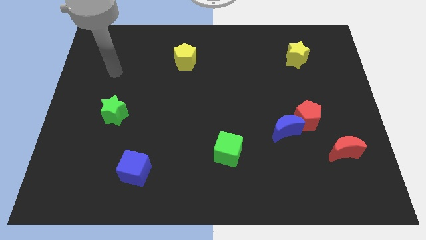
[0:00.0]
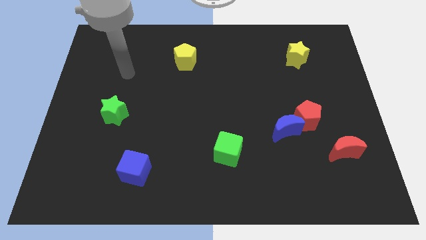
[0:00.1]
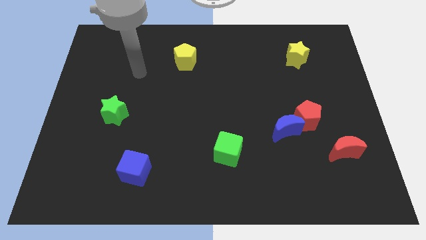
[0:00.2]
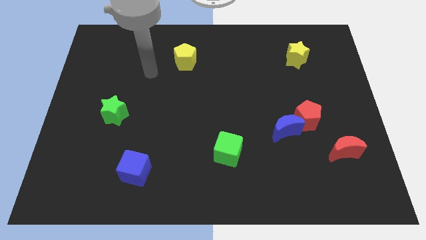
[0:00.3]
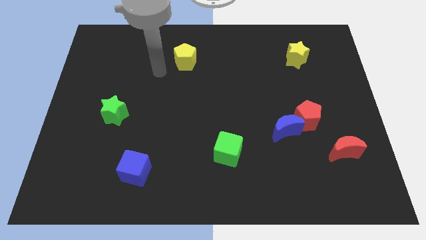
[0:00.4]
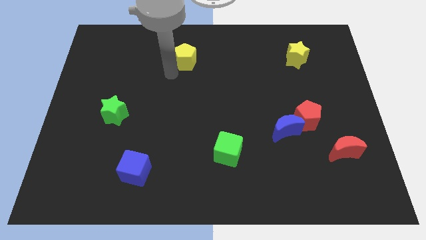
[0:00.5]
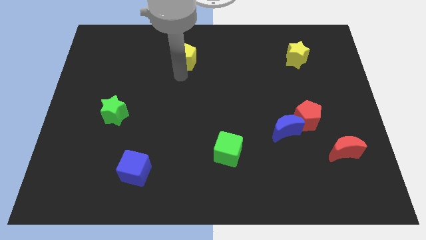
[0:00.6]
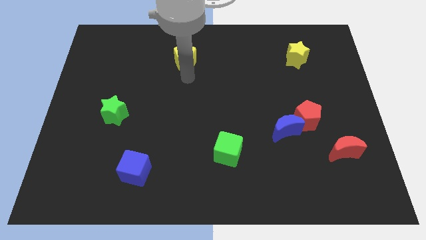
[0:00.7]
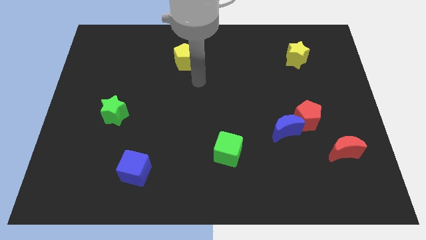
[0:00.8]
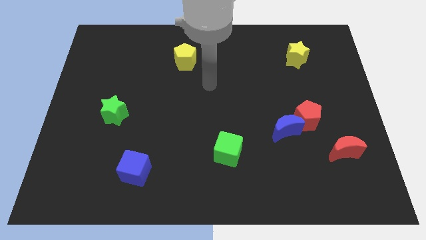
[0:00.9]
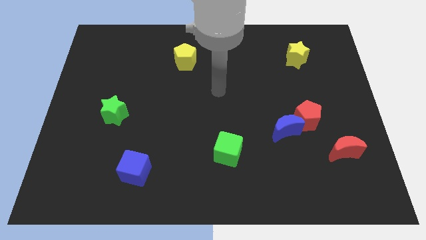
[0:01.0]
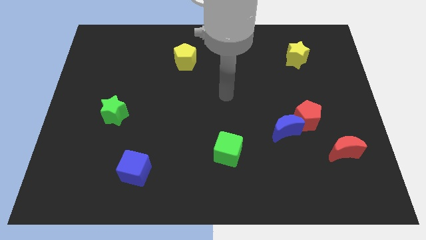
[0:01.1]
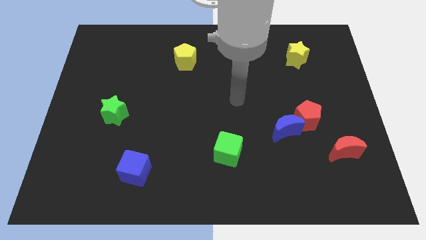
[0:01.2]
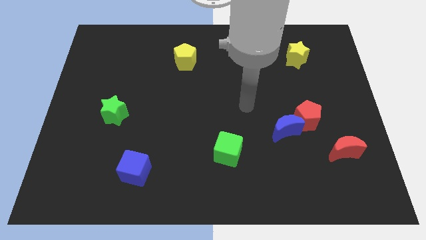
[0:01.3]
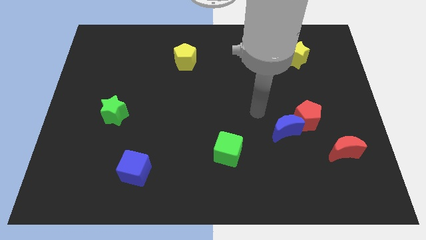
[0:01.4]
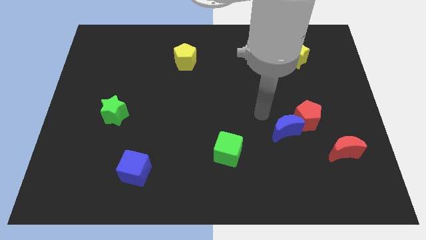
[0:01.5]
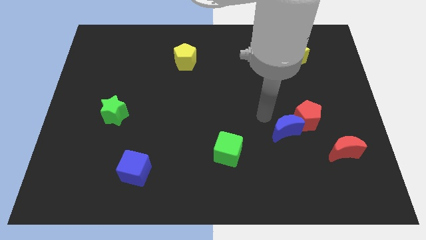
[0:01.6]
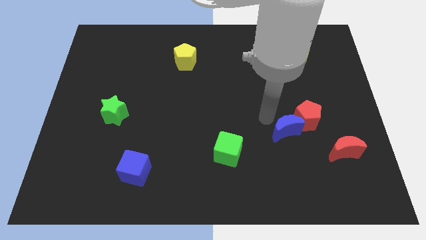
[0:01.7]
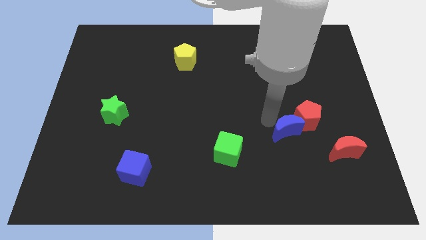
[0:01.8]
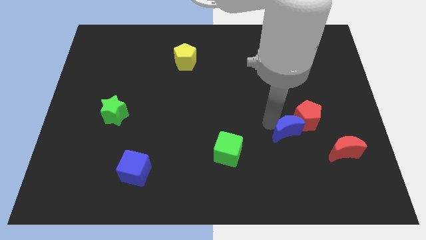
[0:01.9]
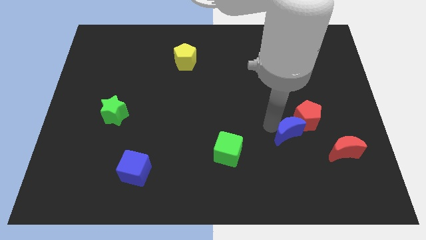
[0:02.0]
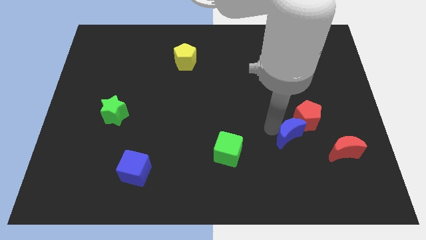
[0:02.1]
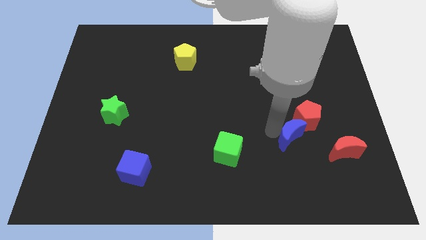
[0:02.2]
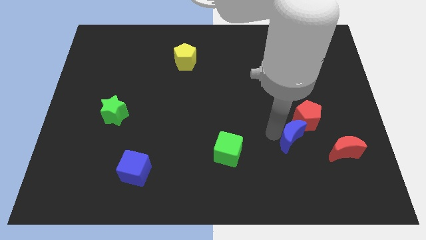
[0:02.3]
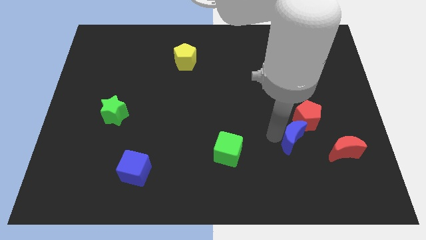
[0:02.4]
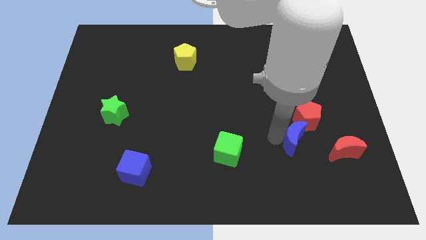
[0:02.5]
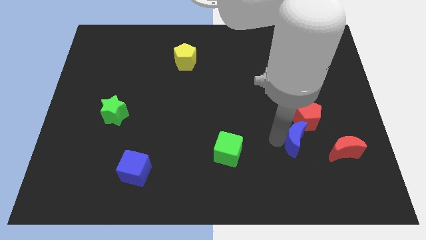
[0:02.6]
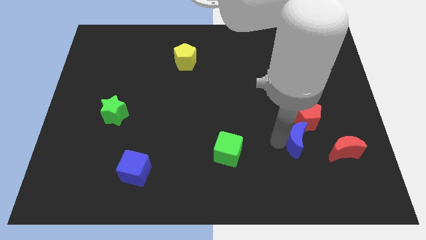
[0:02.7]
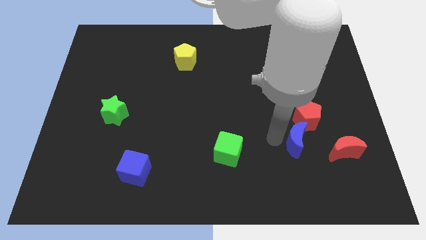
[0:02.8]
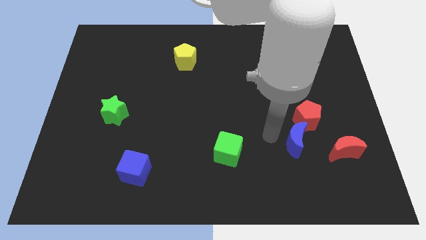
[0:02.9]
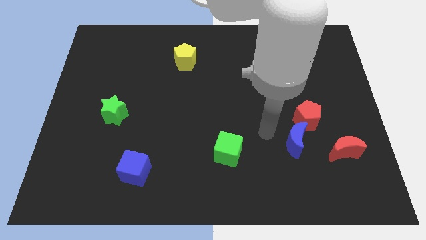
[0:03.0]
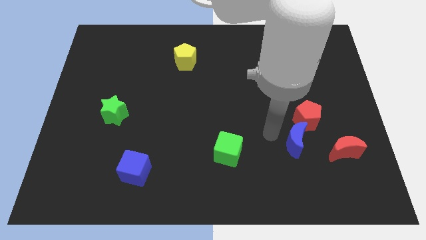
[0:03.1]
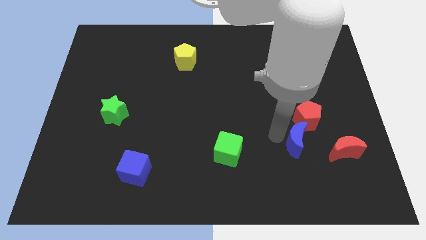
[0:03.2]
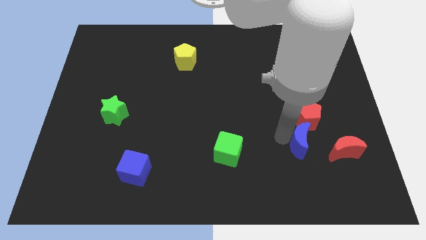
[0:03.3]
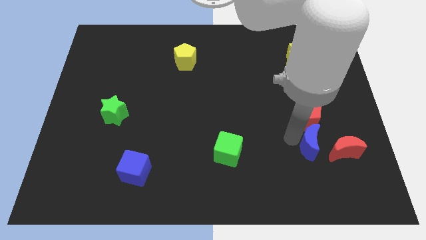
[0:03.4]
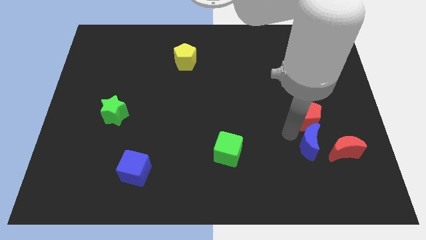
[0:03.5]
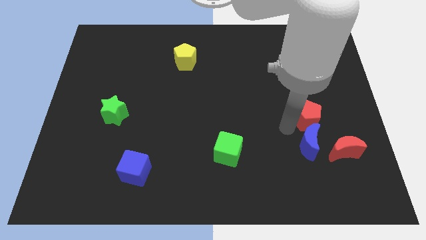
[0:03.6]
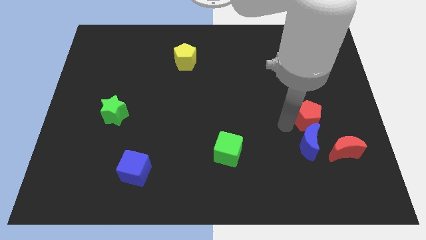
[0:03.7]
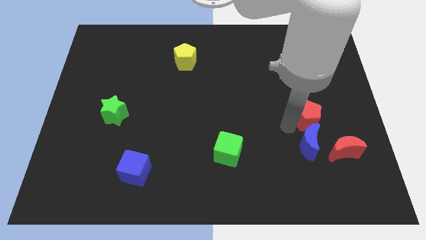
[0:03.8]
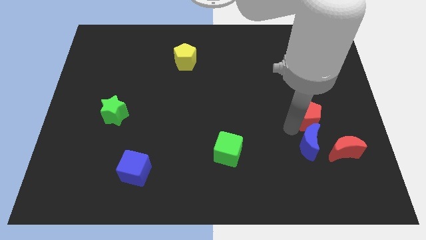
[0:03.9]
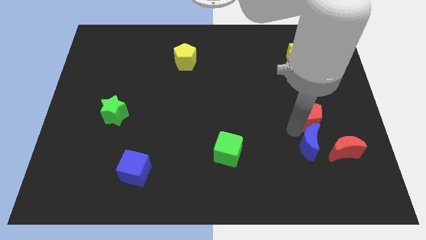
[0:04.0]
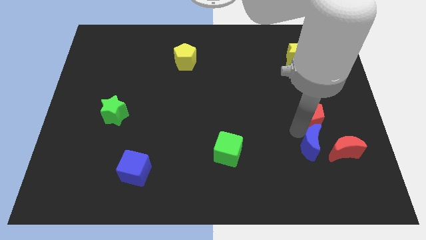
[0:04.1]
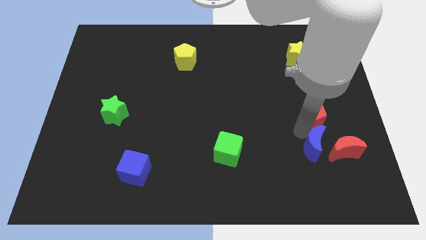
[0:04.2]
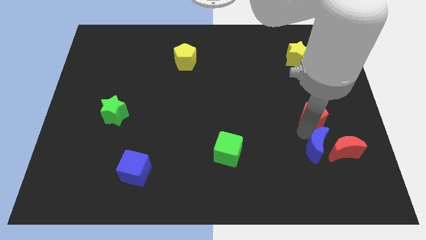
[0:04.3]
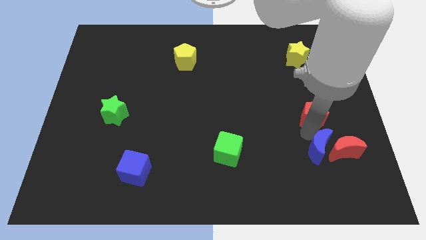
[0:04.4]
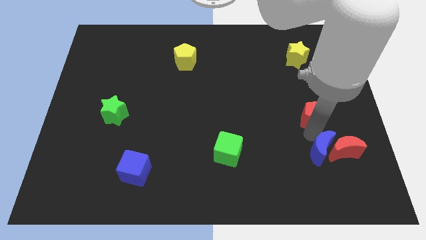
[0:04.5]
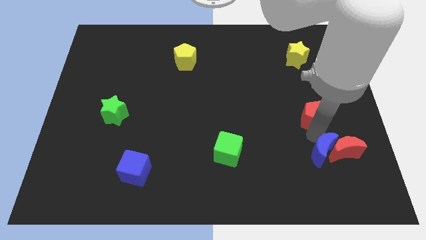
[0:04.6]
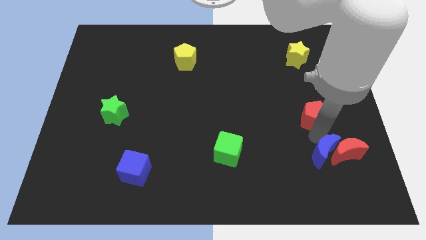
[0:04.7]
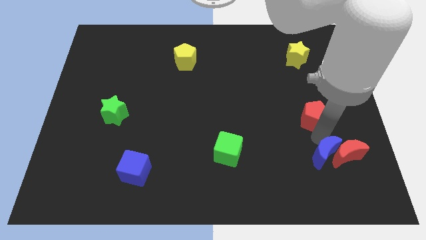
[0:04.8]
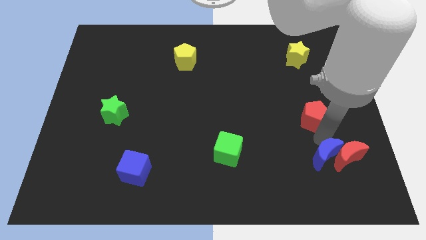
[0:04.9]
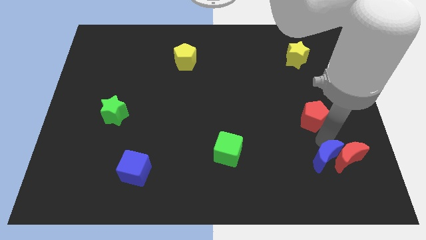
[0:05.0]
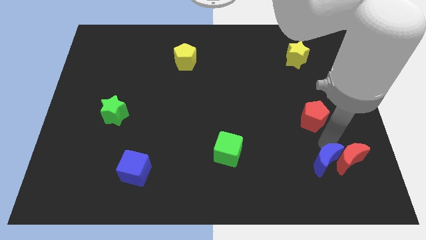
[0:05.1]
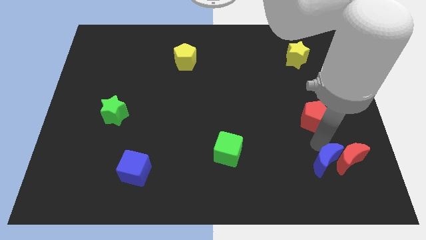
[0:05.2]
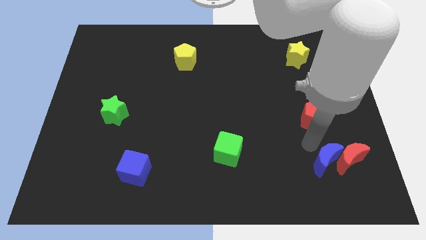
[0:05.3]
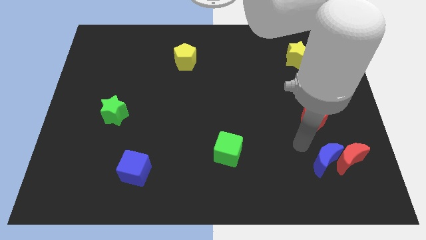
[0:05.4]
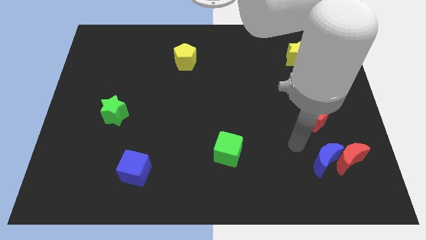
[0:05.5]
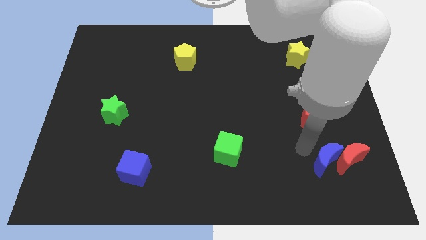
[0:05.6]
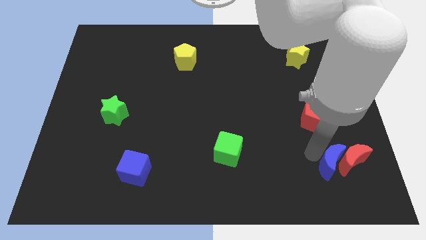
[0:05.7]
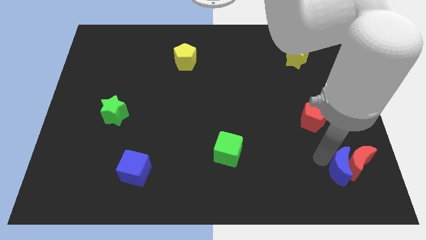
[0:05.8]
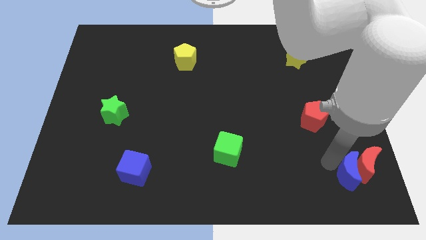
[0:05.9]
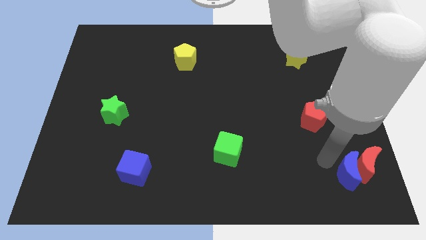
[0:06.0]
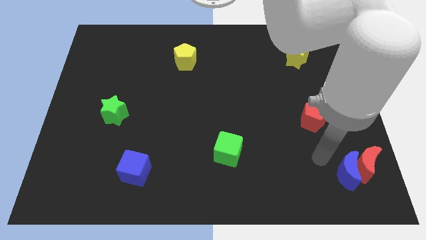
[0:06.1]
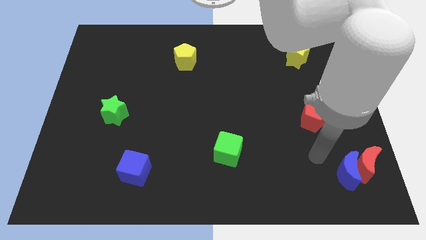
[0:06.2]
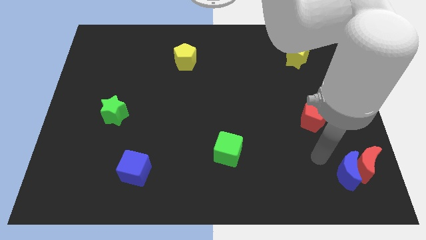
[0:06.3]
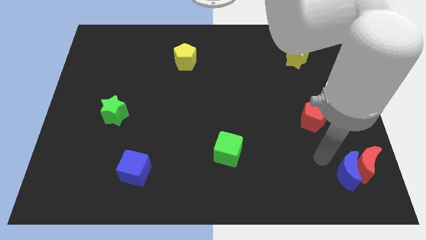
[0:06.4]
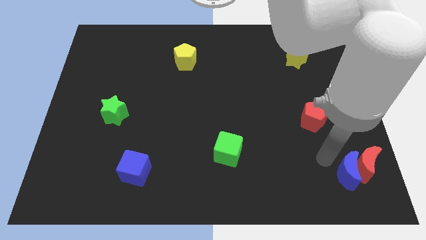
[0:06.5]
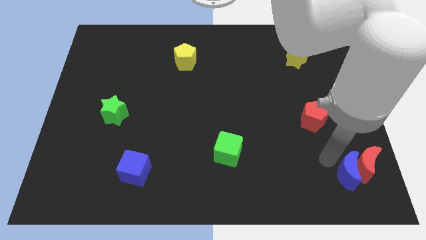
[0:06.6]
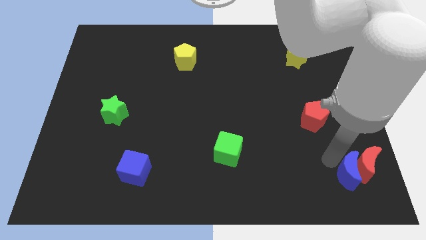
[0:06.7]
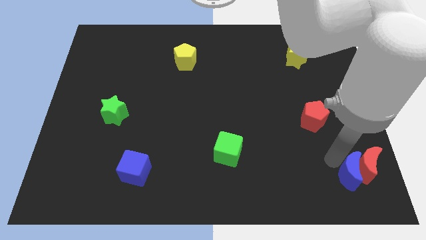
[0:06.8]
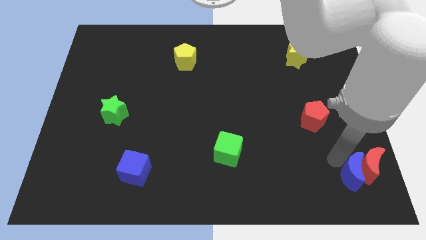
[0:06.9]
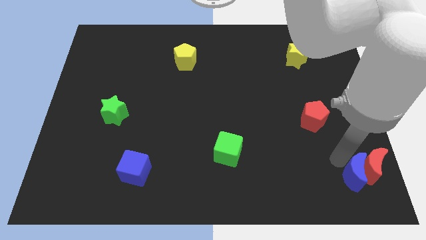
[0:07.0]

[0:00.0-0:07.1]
slide the blue moon to the bottom right
